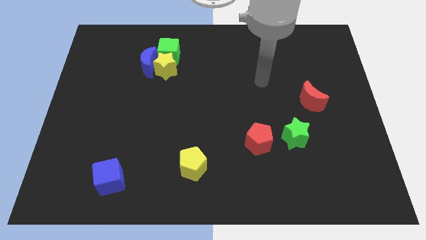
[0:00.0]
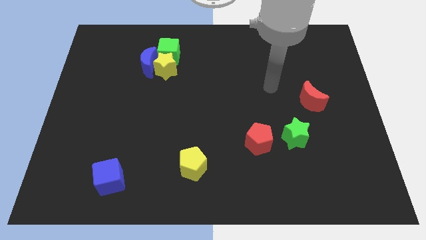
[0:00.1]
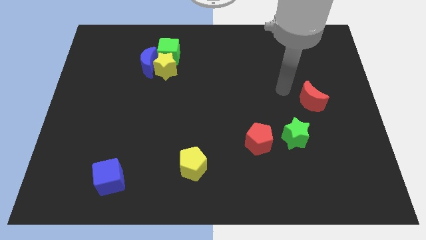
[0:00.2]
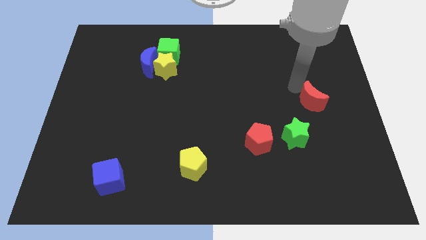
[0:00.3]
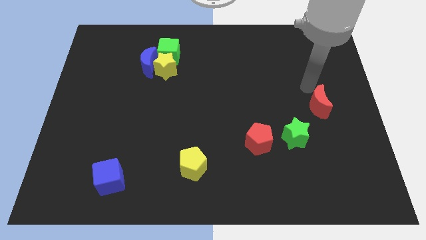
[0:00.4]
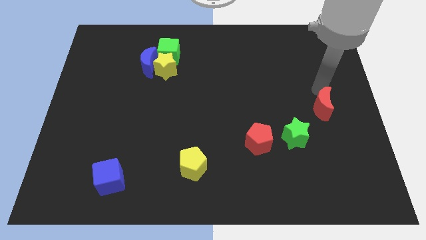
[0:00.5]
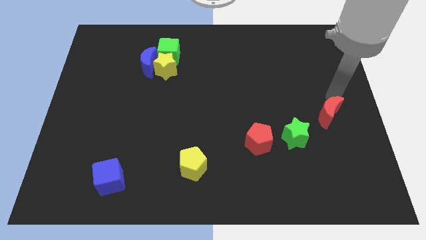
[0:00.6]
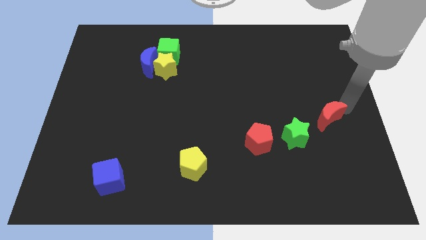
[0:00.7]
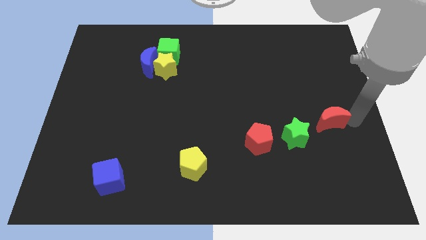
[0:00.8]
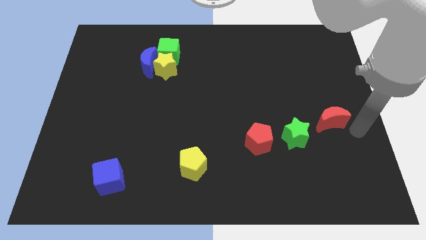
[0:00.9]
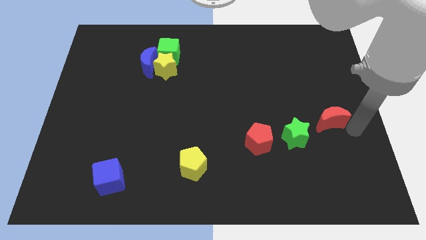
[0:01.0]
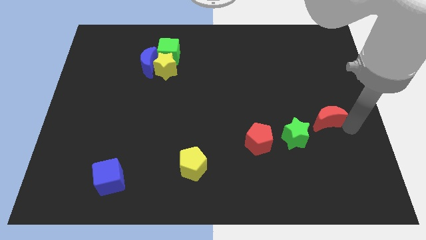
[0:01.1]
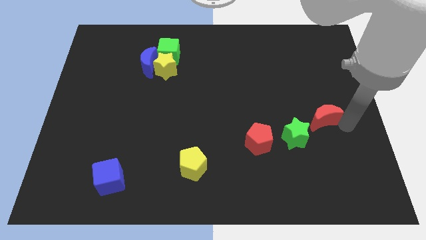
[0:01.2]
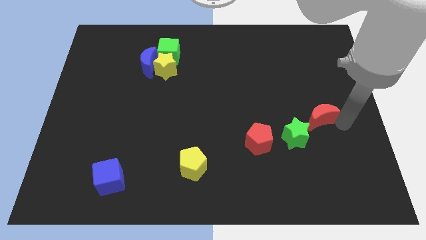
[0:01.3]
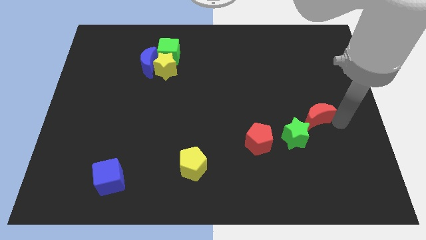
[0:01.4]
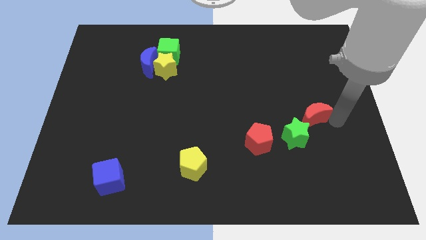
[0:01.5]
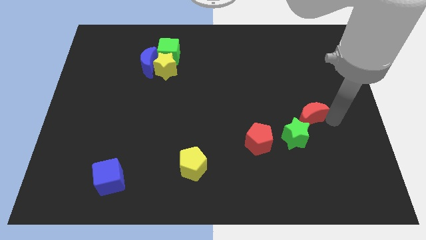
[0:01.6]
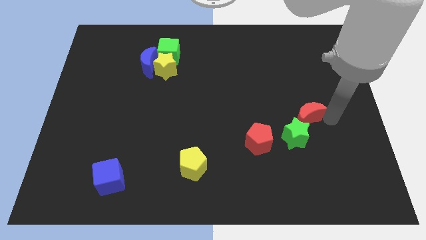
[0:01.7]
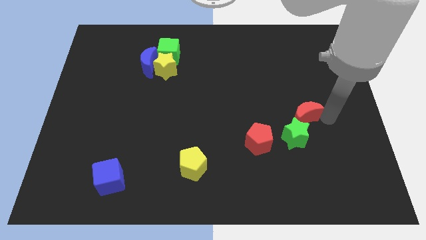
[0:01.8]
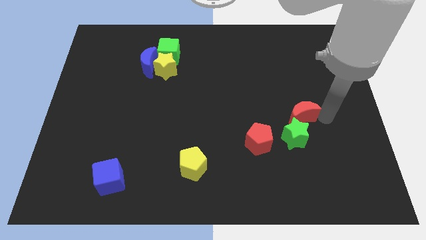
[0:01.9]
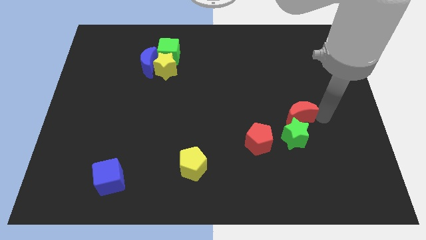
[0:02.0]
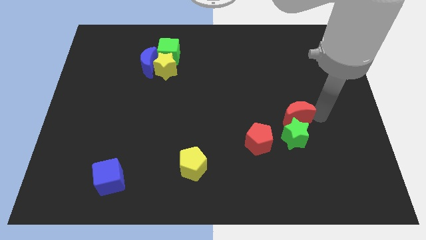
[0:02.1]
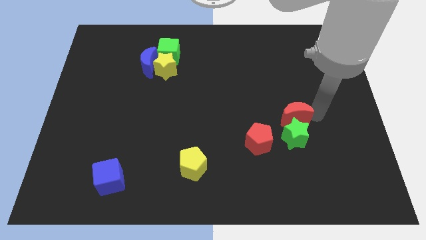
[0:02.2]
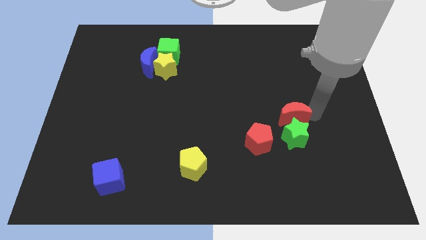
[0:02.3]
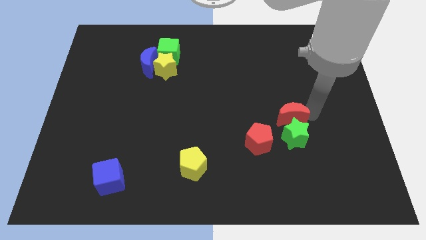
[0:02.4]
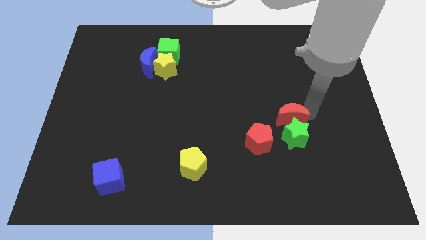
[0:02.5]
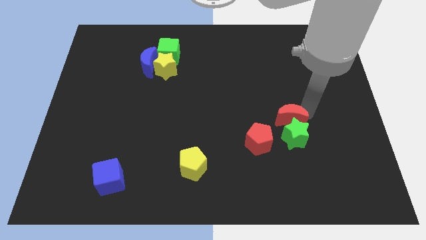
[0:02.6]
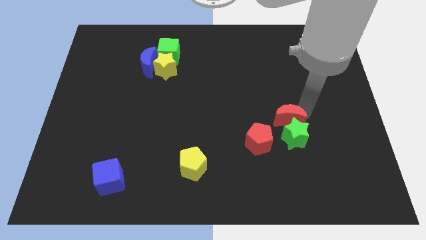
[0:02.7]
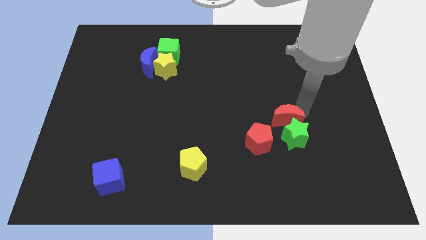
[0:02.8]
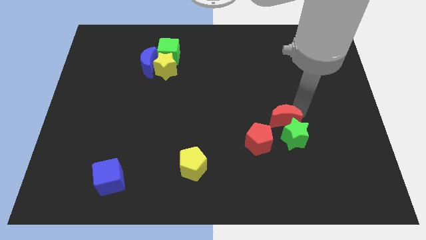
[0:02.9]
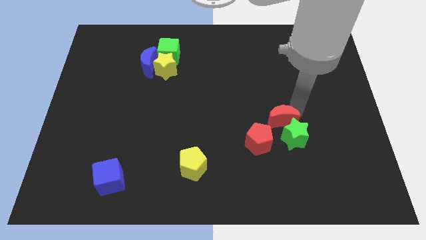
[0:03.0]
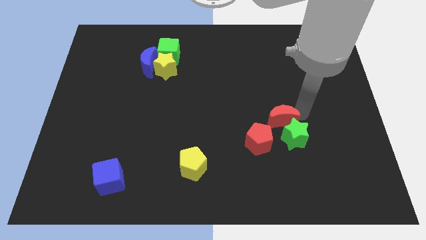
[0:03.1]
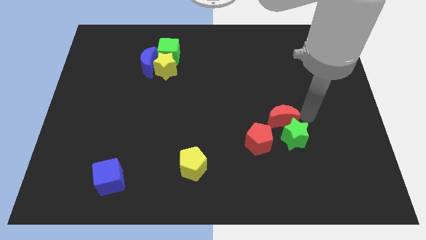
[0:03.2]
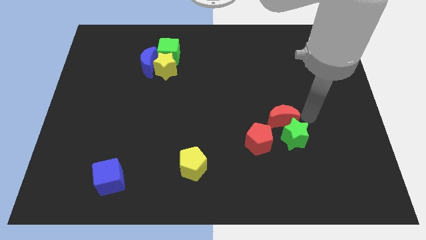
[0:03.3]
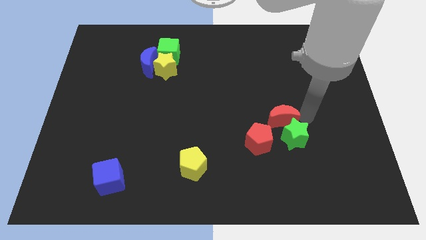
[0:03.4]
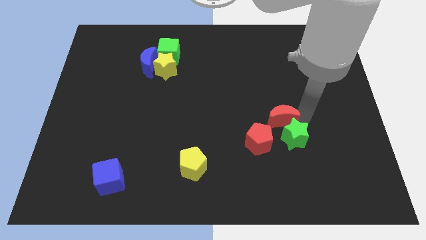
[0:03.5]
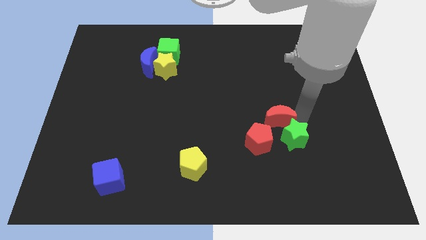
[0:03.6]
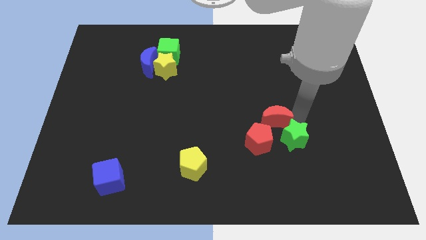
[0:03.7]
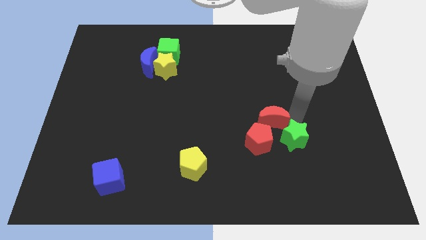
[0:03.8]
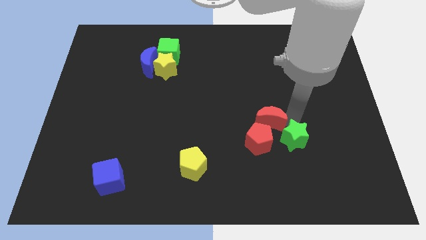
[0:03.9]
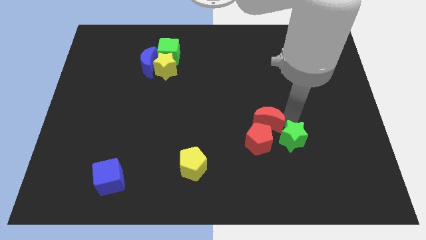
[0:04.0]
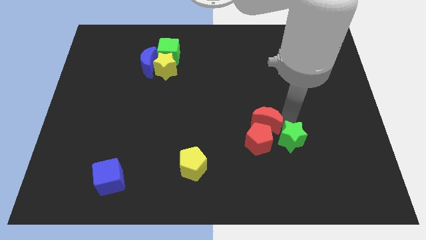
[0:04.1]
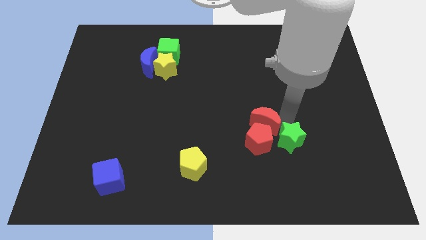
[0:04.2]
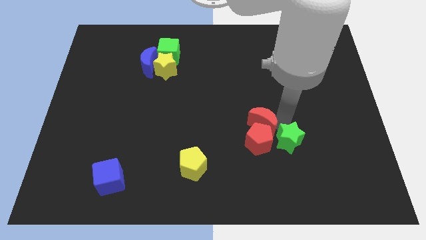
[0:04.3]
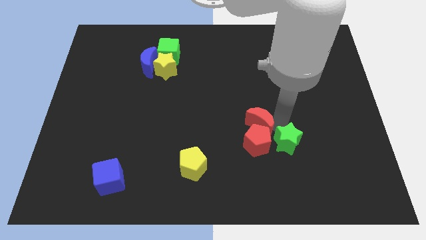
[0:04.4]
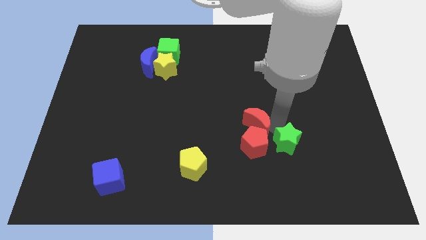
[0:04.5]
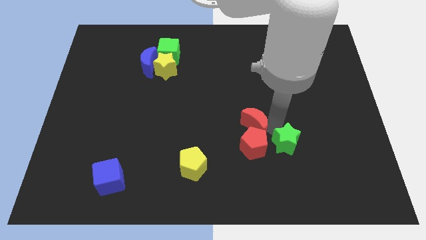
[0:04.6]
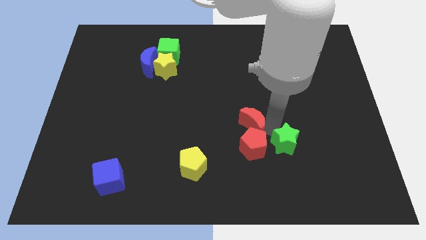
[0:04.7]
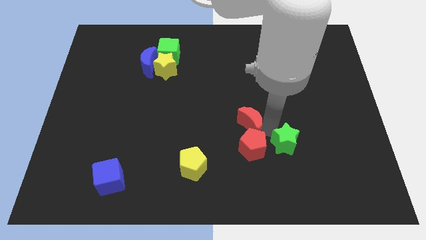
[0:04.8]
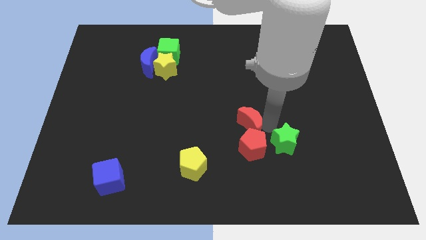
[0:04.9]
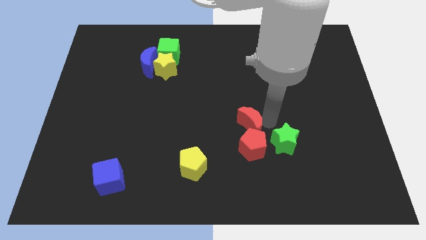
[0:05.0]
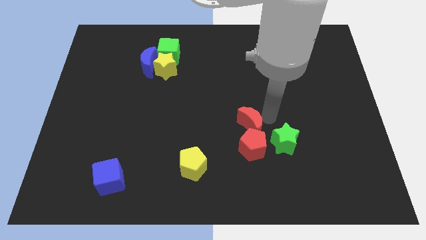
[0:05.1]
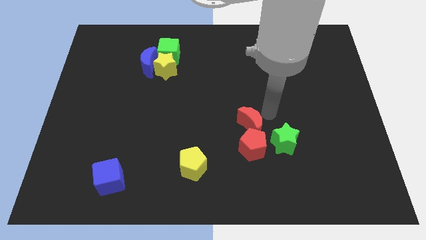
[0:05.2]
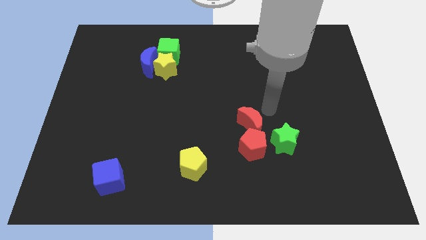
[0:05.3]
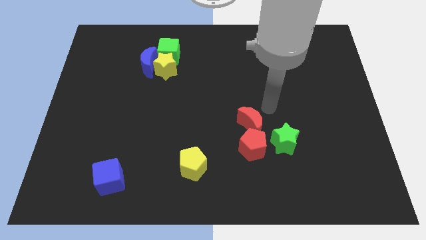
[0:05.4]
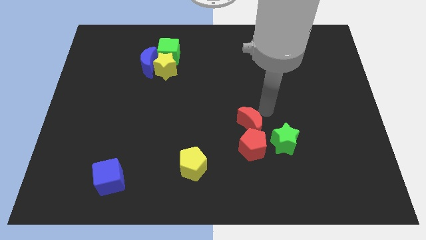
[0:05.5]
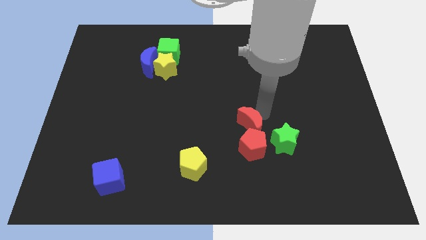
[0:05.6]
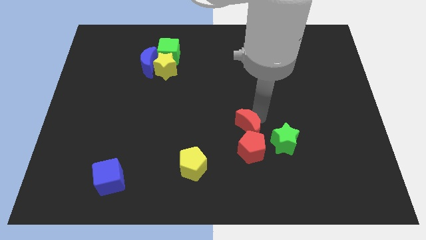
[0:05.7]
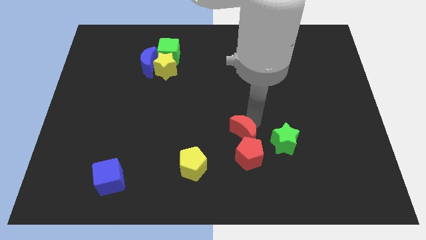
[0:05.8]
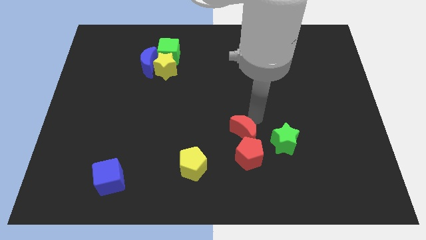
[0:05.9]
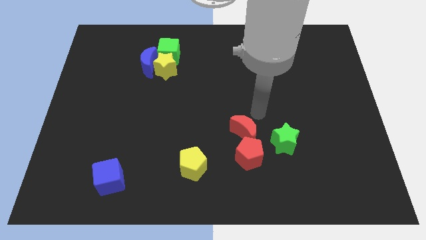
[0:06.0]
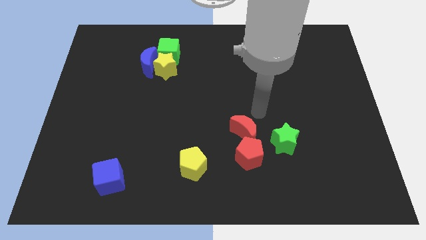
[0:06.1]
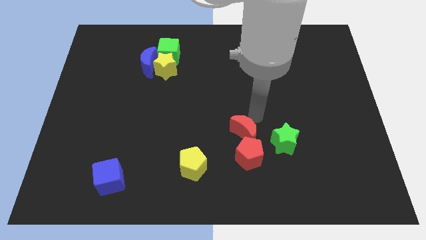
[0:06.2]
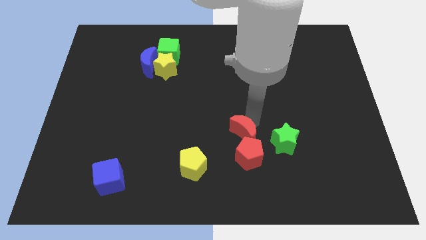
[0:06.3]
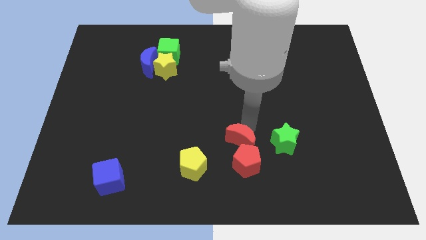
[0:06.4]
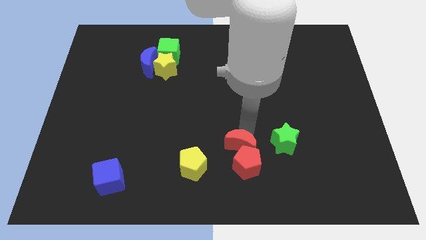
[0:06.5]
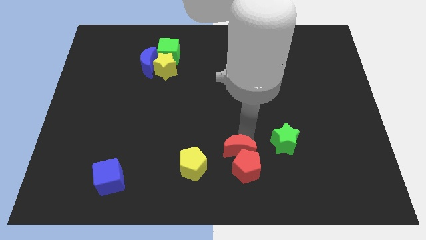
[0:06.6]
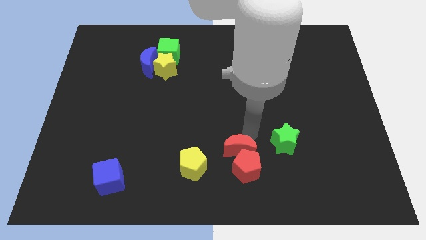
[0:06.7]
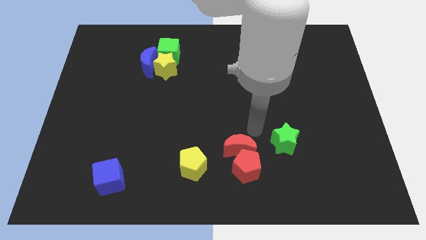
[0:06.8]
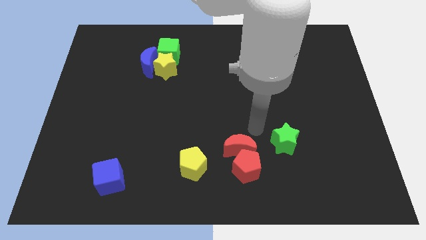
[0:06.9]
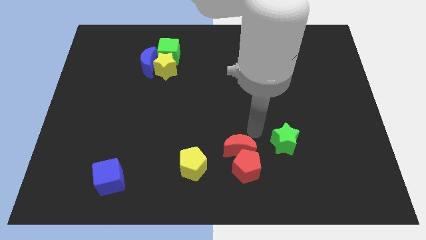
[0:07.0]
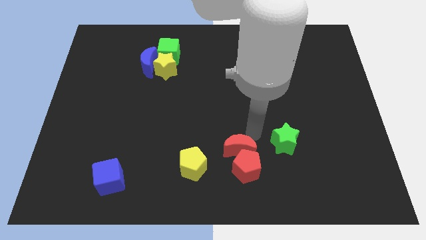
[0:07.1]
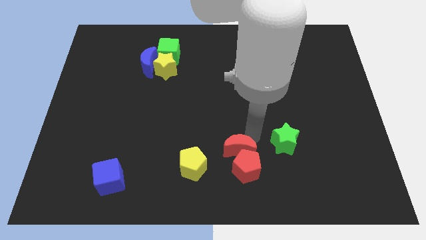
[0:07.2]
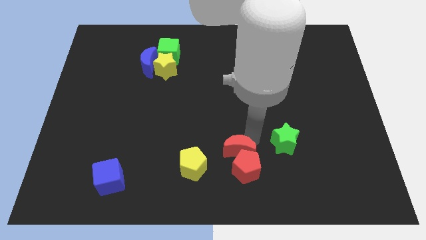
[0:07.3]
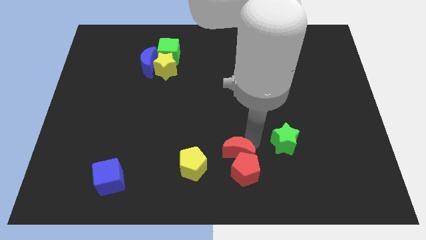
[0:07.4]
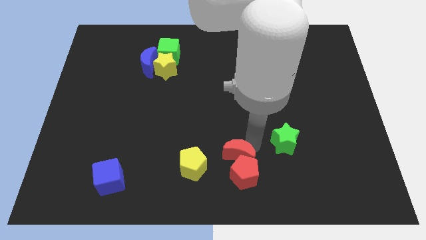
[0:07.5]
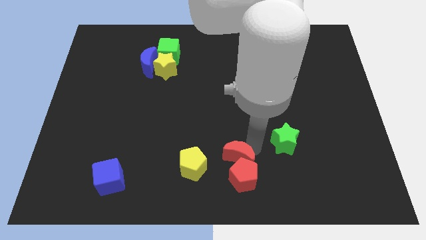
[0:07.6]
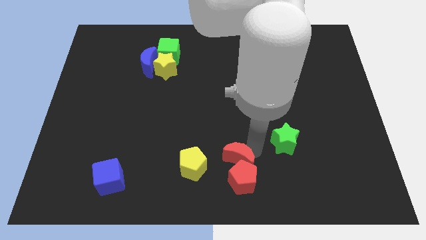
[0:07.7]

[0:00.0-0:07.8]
slide the red moon to the bottom
